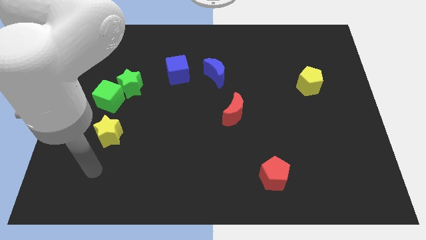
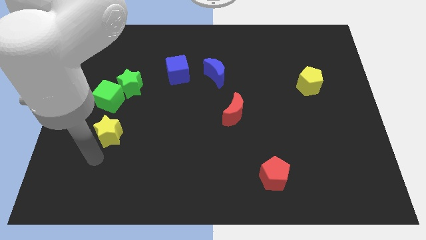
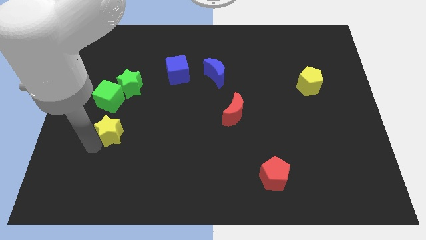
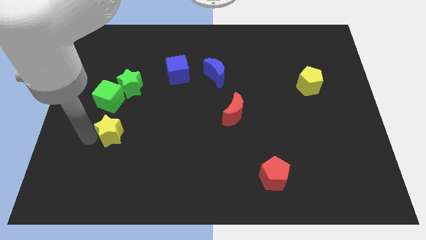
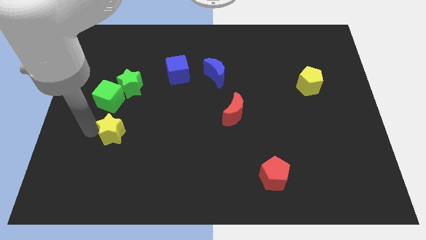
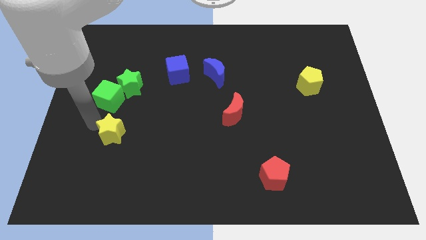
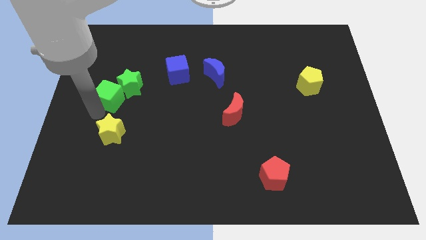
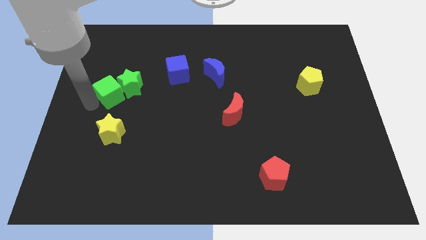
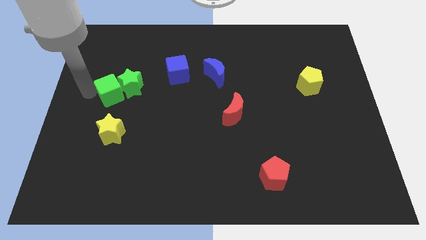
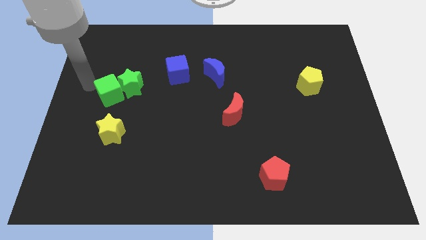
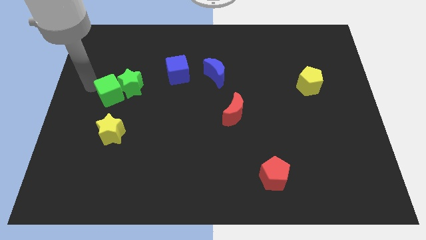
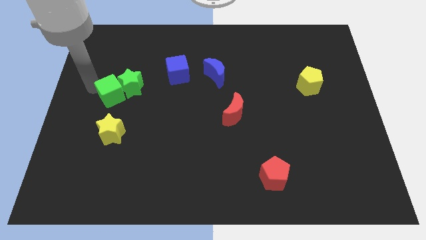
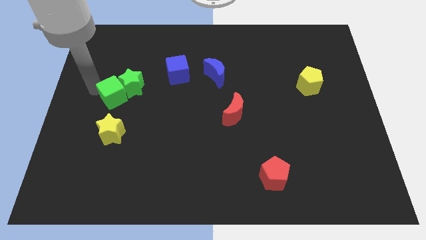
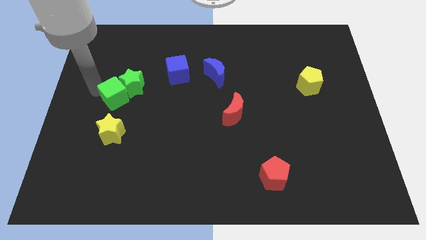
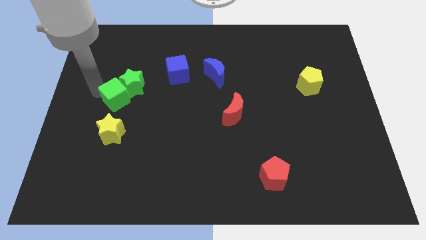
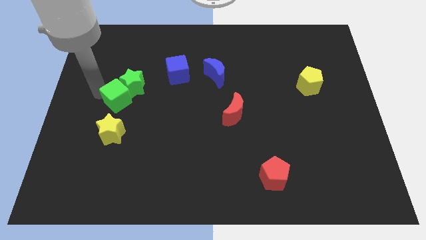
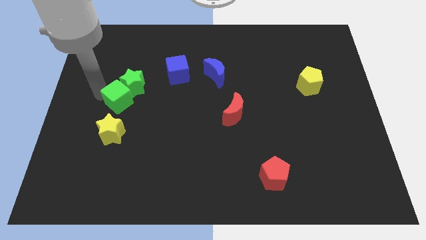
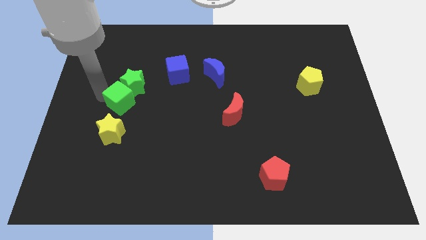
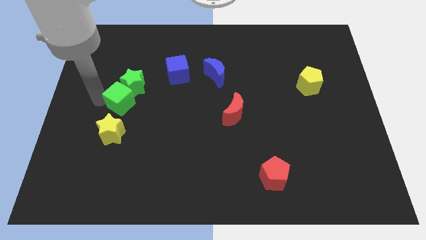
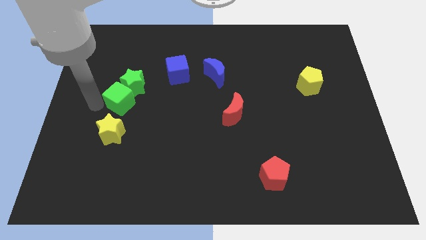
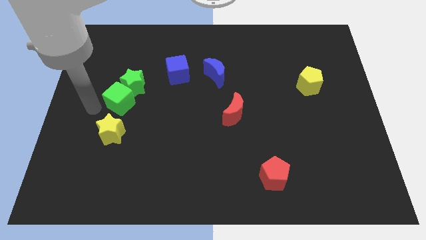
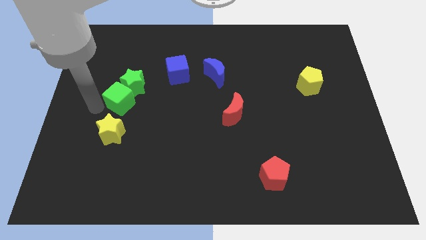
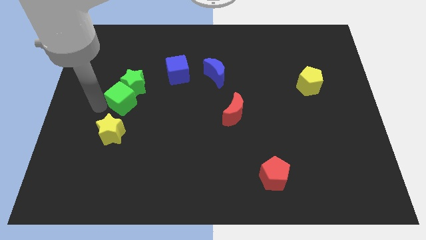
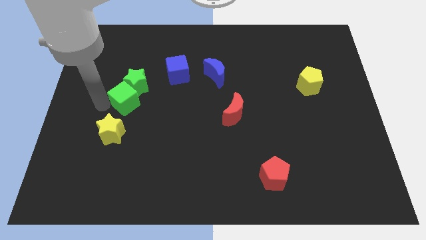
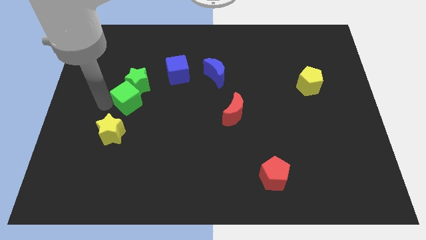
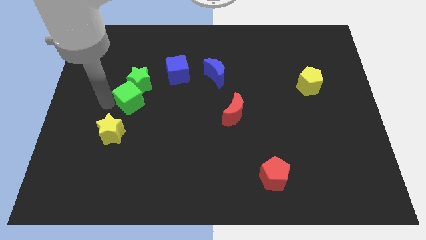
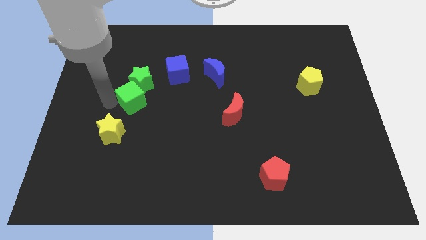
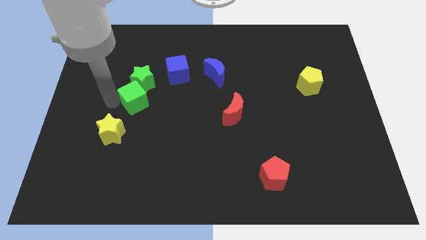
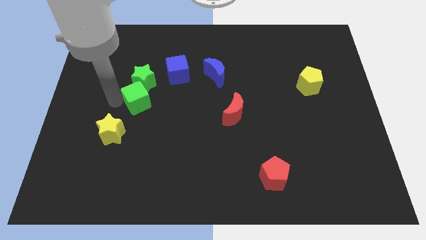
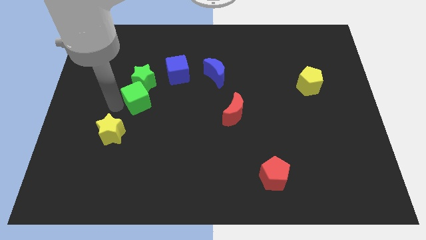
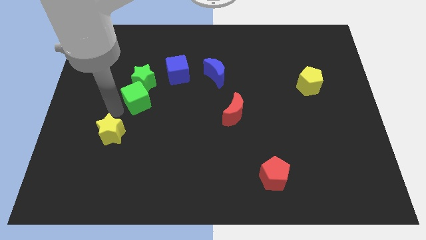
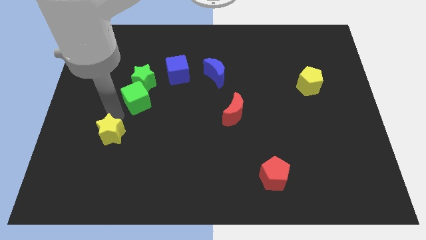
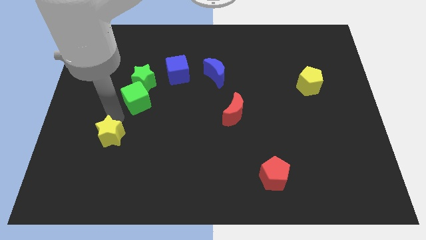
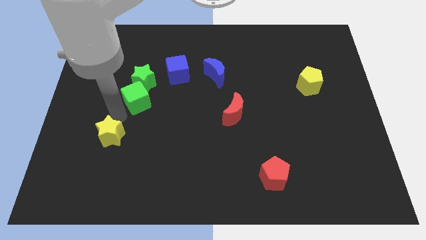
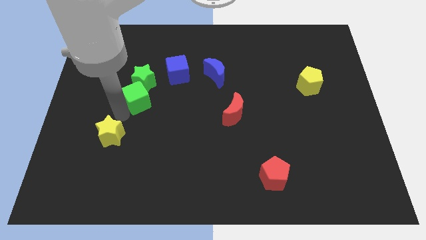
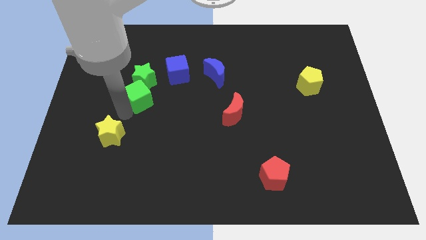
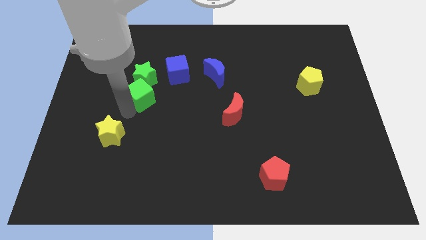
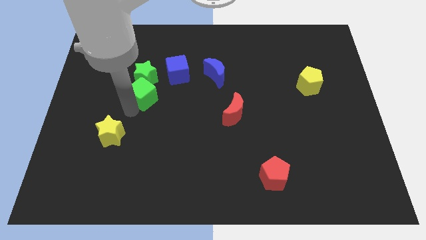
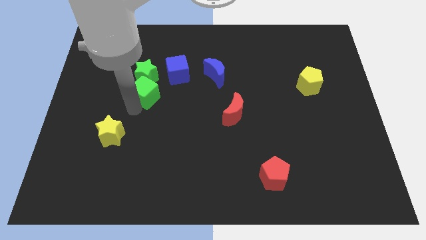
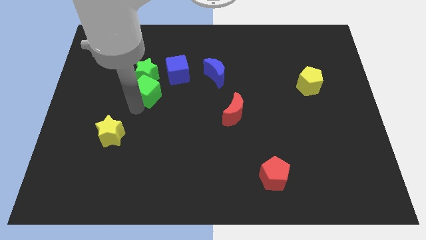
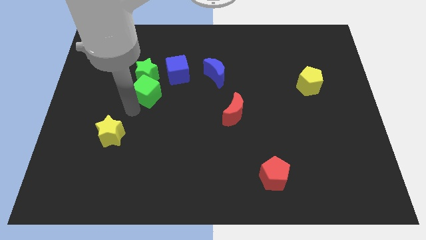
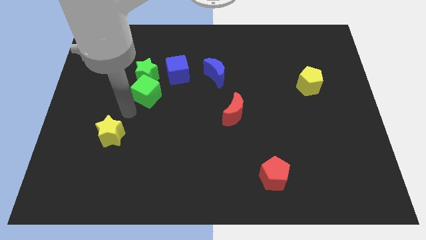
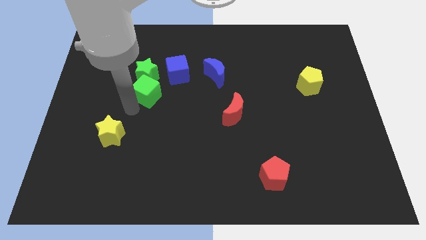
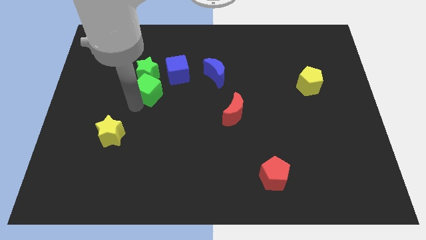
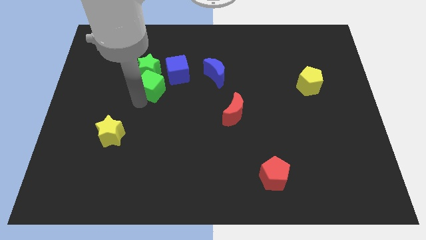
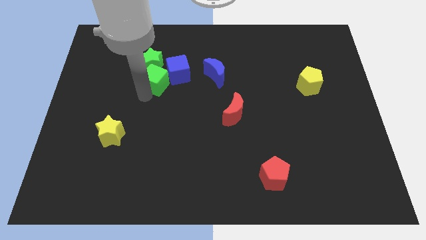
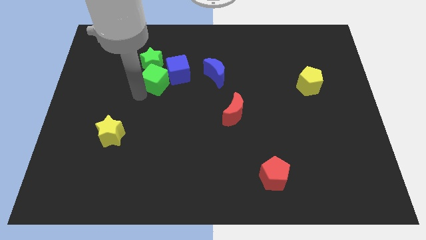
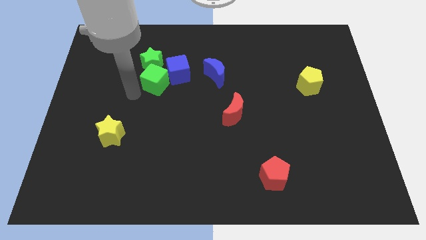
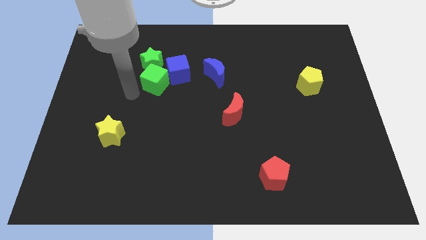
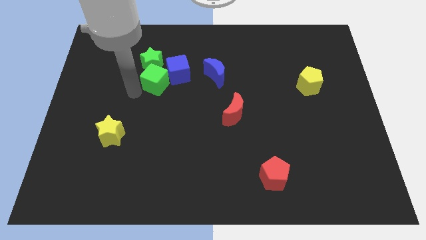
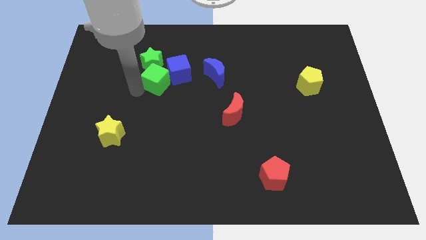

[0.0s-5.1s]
slide the green cube close to the blue cube
